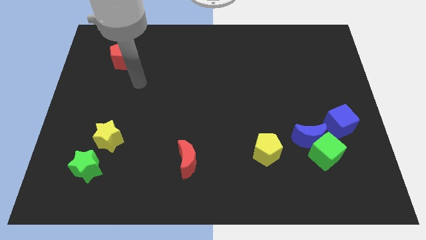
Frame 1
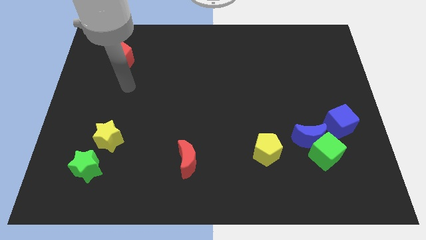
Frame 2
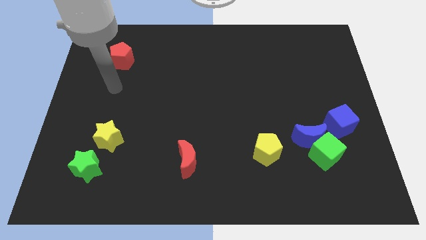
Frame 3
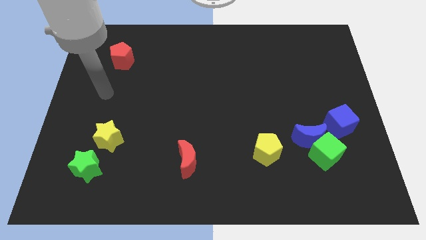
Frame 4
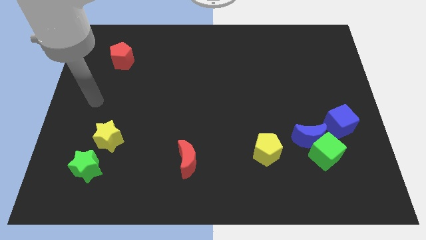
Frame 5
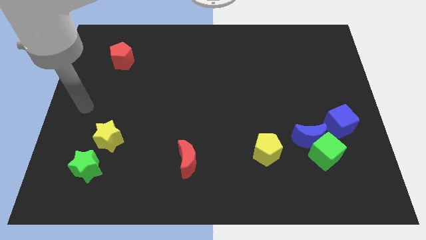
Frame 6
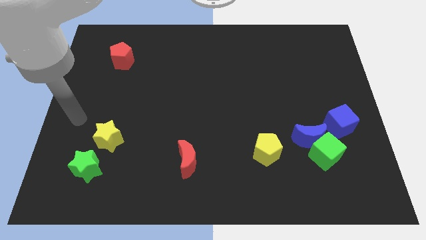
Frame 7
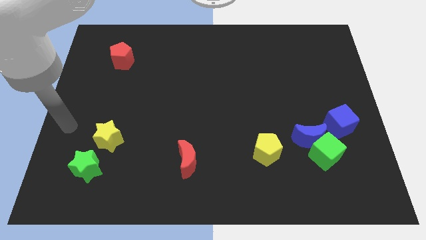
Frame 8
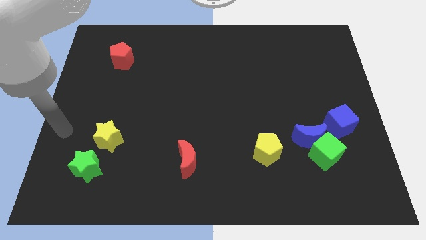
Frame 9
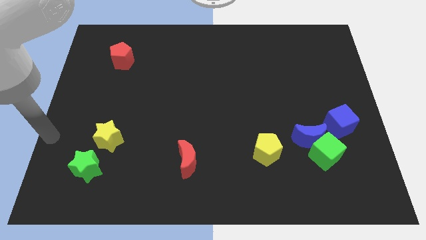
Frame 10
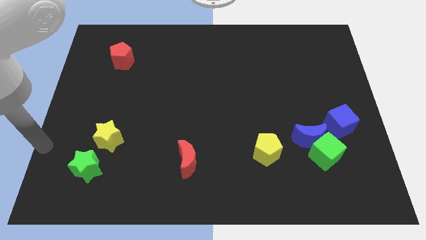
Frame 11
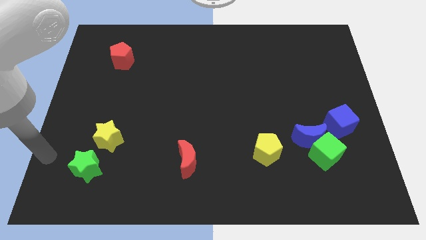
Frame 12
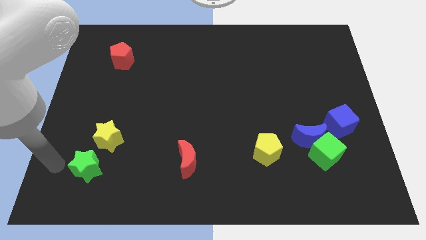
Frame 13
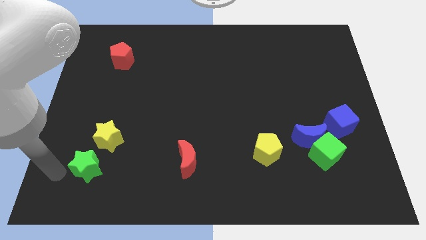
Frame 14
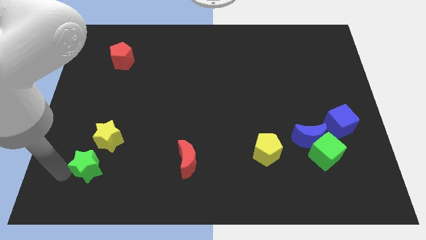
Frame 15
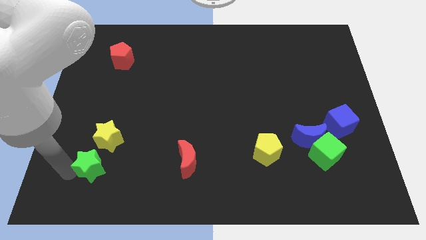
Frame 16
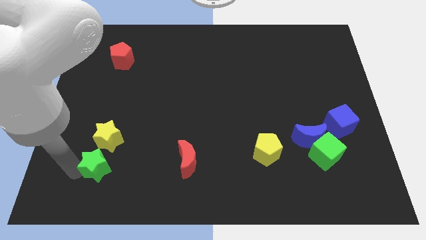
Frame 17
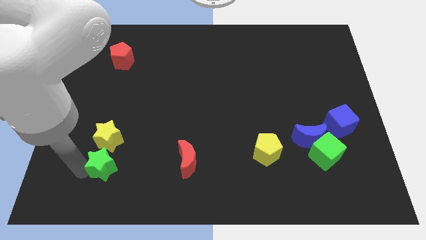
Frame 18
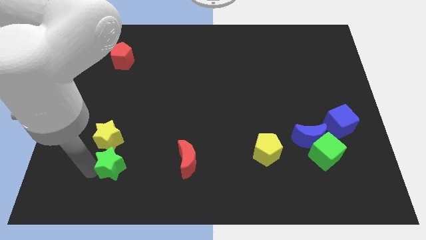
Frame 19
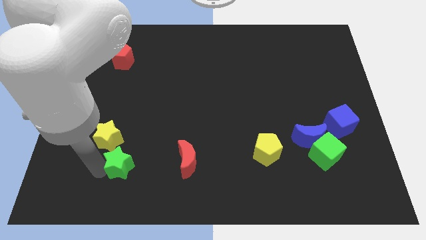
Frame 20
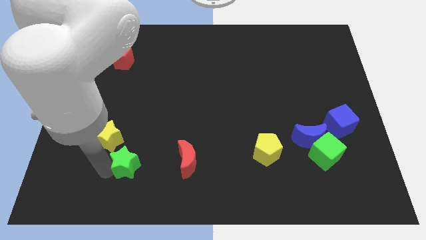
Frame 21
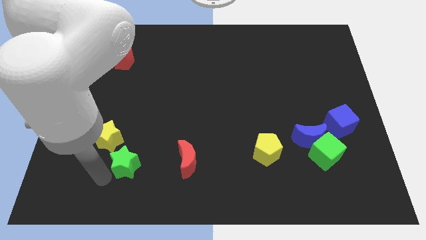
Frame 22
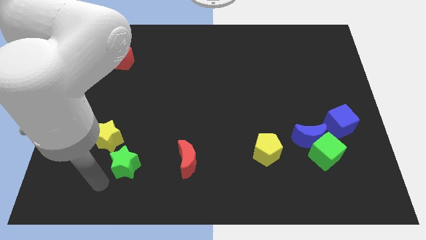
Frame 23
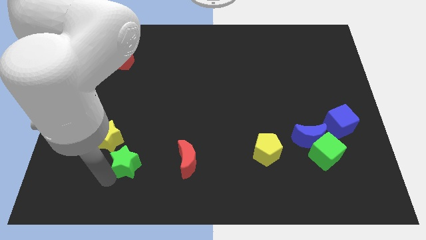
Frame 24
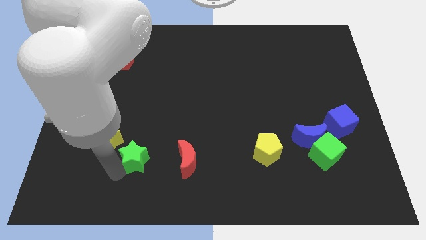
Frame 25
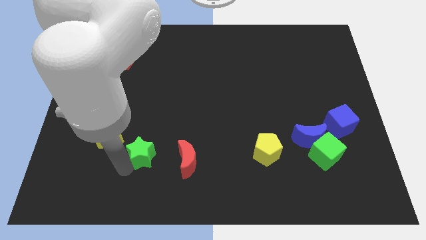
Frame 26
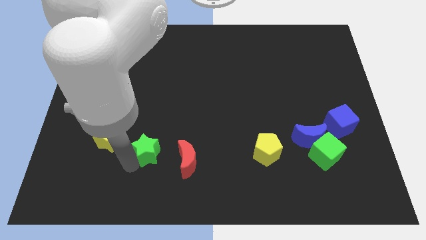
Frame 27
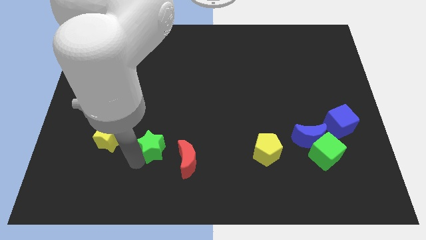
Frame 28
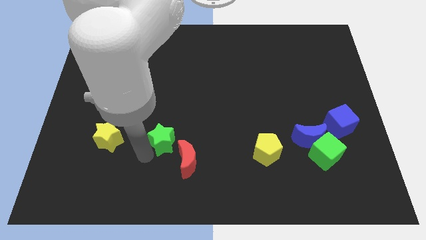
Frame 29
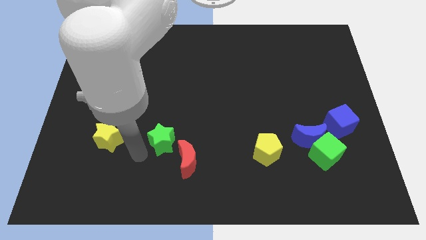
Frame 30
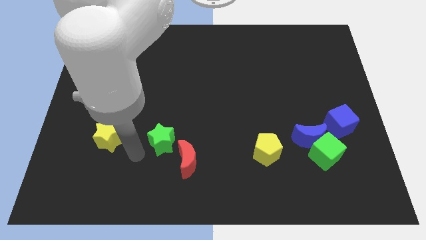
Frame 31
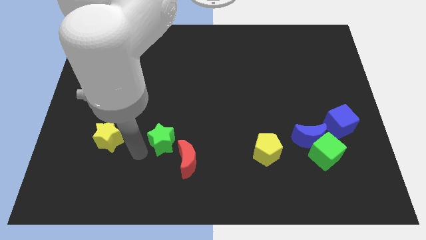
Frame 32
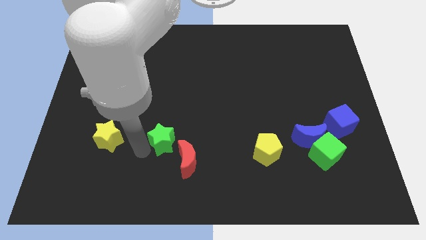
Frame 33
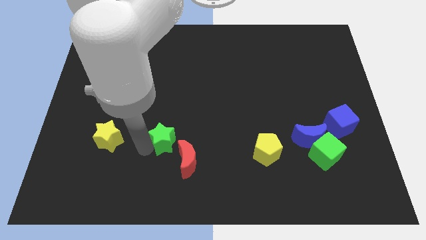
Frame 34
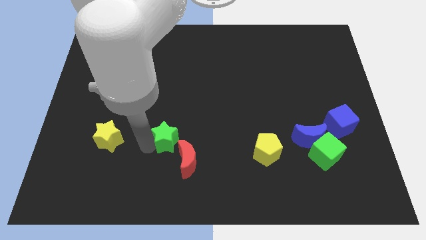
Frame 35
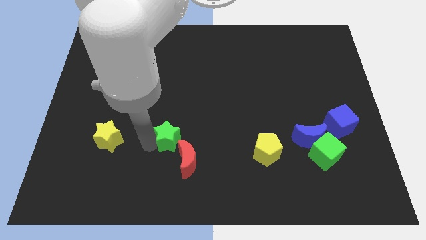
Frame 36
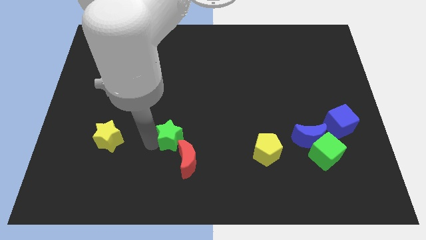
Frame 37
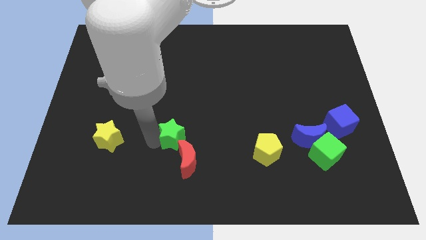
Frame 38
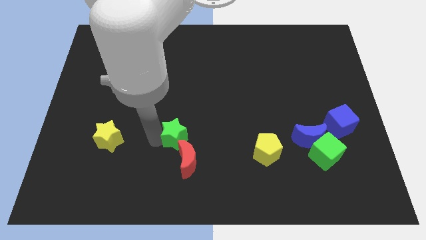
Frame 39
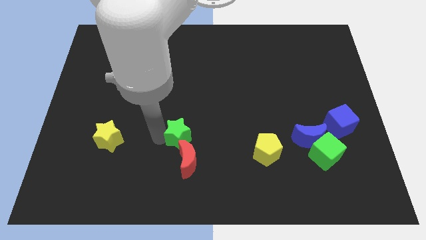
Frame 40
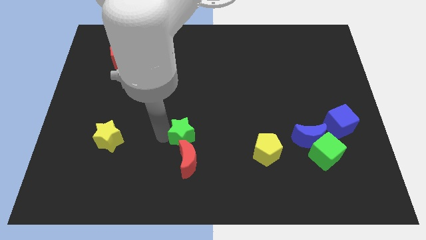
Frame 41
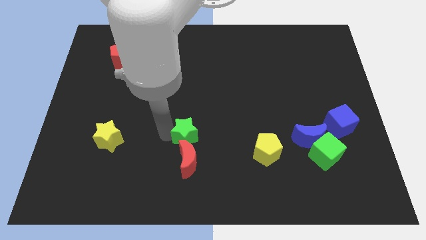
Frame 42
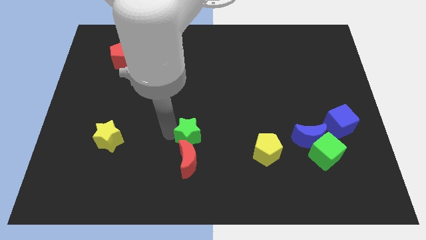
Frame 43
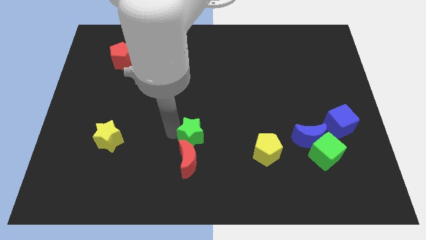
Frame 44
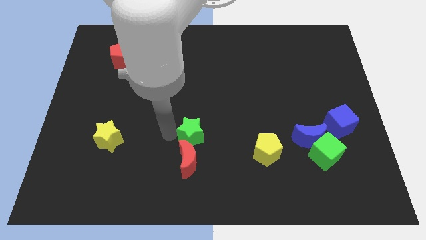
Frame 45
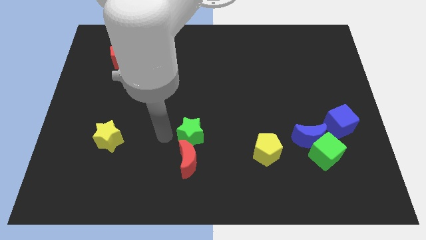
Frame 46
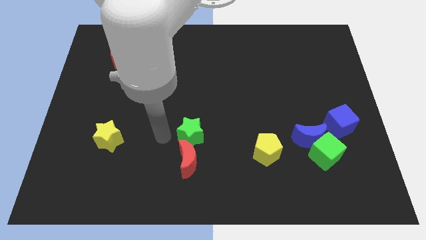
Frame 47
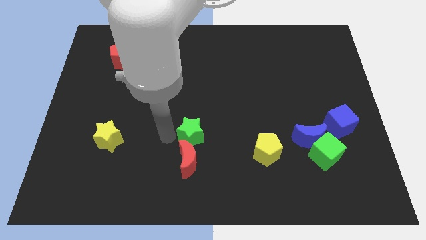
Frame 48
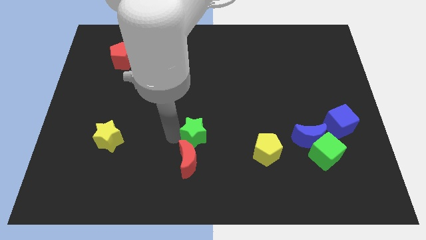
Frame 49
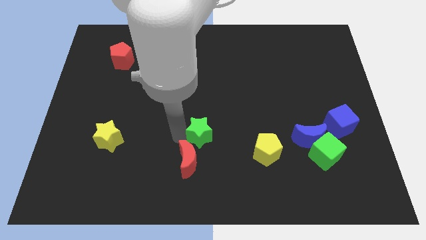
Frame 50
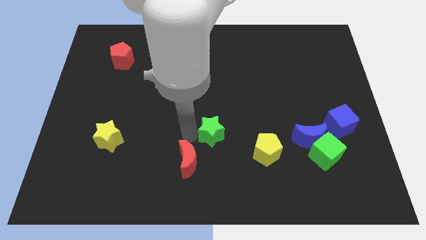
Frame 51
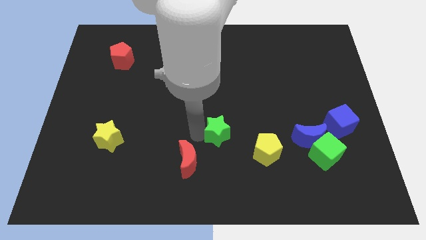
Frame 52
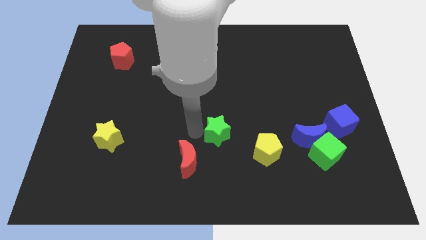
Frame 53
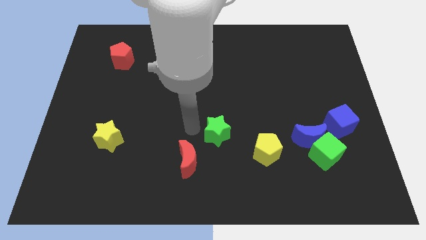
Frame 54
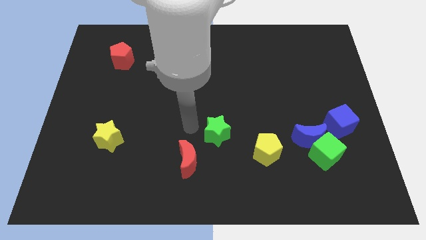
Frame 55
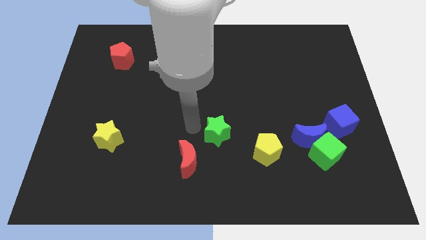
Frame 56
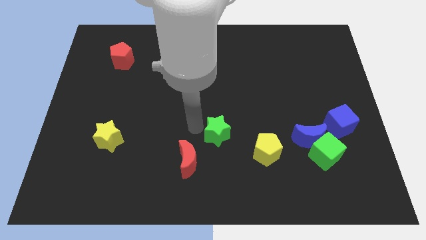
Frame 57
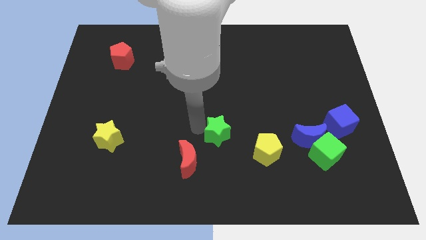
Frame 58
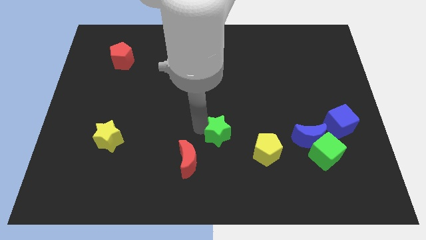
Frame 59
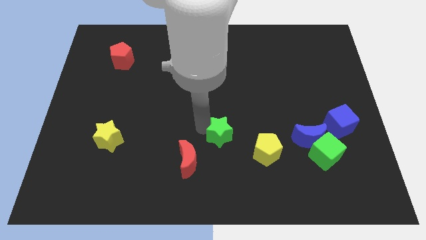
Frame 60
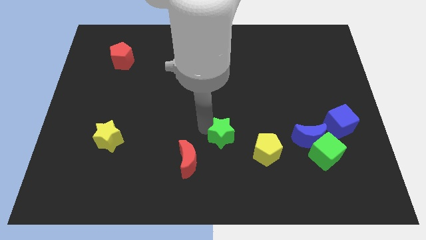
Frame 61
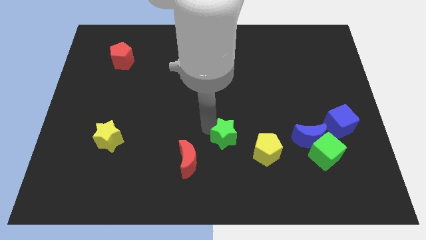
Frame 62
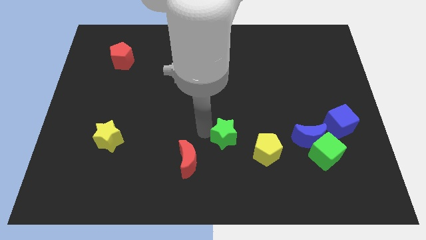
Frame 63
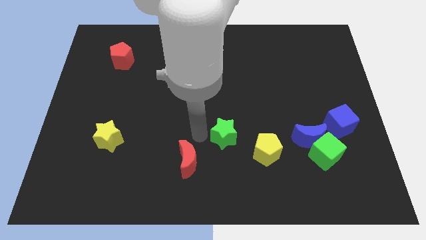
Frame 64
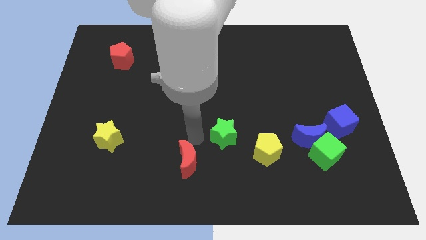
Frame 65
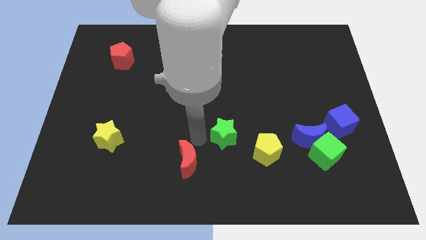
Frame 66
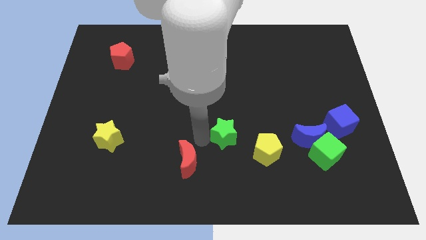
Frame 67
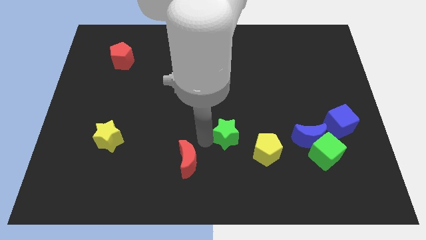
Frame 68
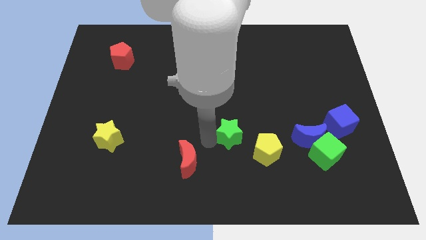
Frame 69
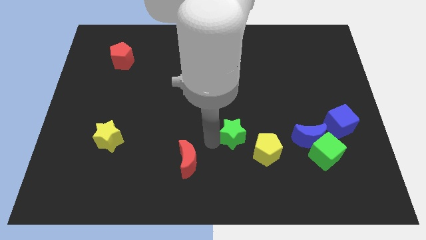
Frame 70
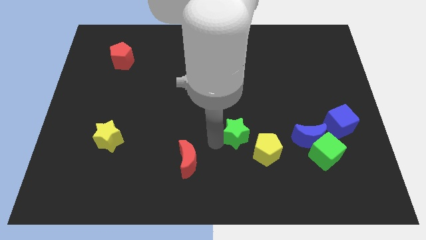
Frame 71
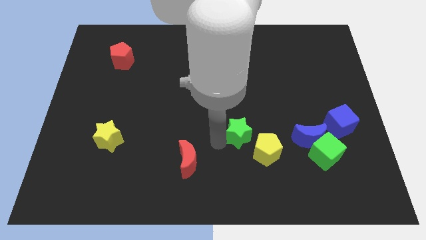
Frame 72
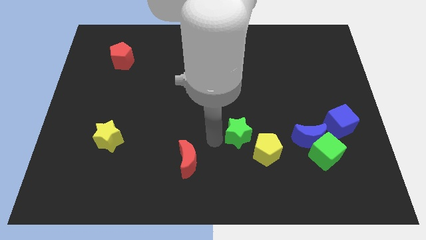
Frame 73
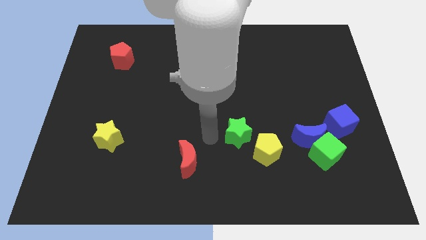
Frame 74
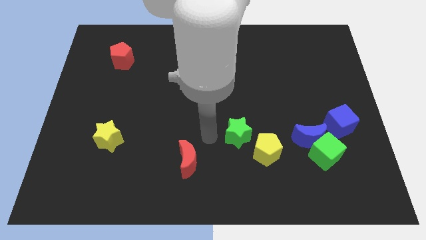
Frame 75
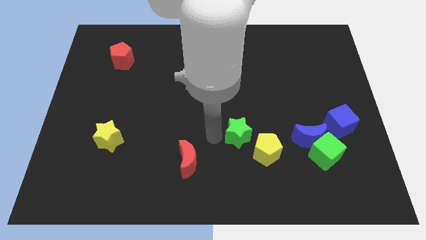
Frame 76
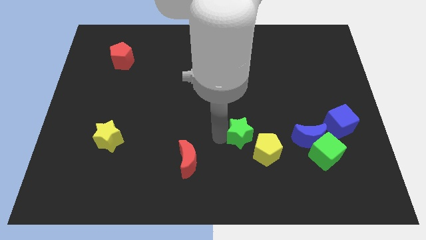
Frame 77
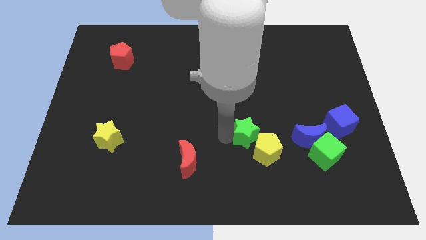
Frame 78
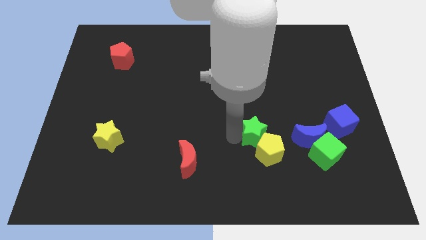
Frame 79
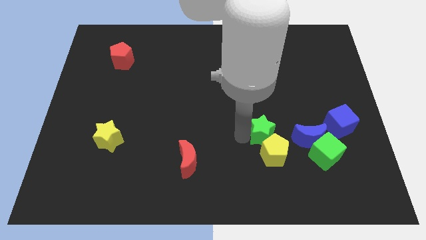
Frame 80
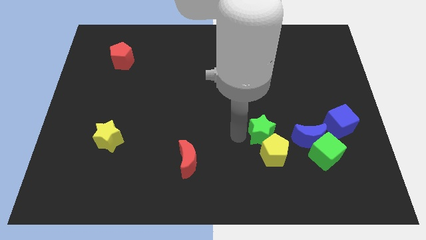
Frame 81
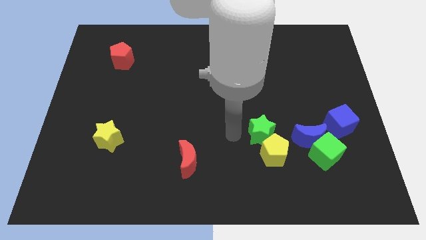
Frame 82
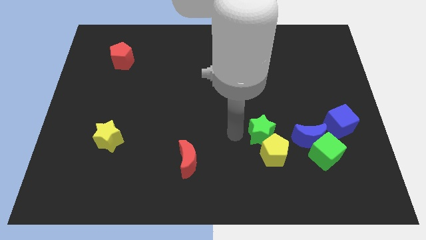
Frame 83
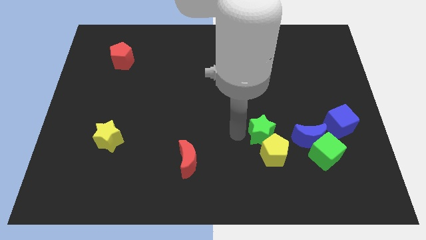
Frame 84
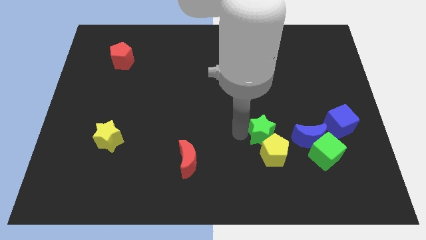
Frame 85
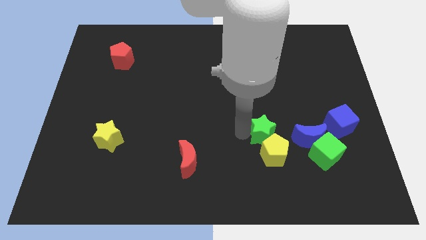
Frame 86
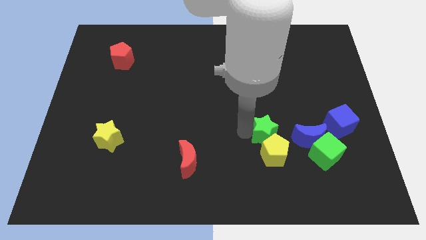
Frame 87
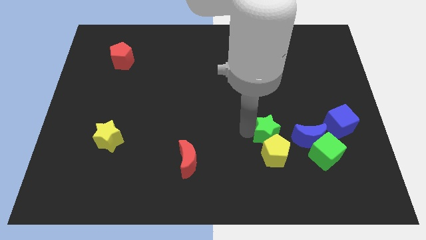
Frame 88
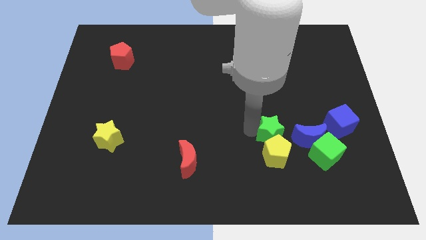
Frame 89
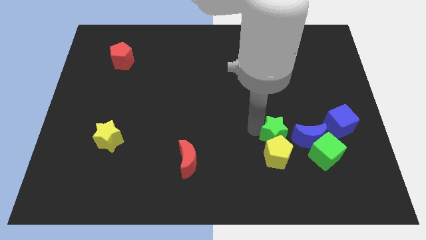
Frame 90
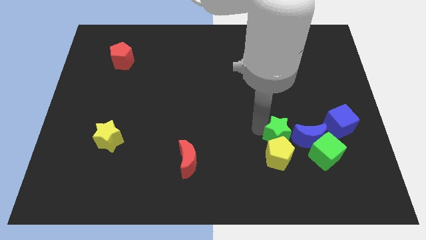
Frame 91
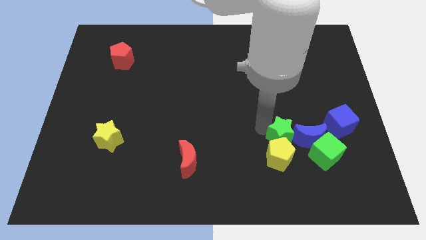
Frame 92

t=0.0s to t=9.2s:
slide the green star next to the blue moon
